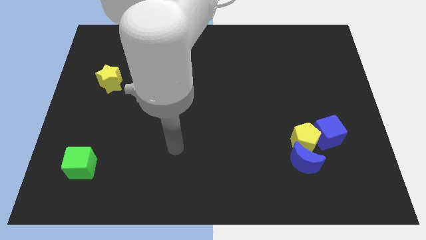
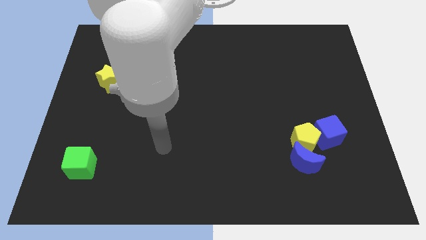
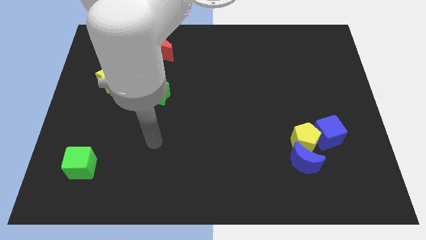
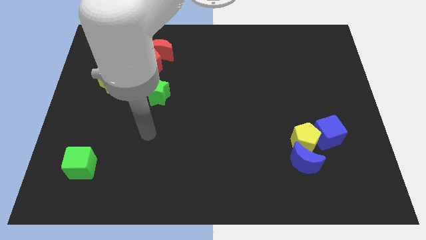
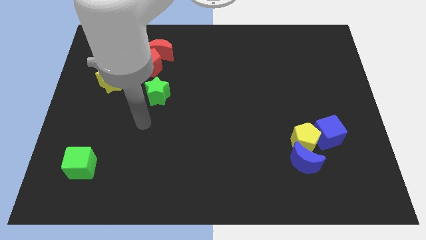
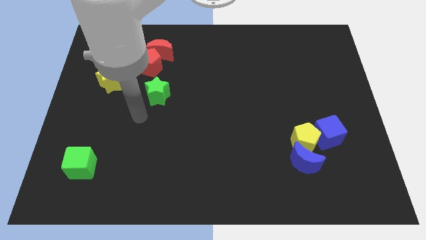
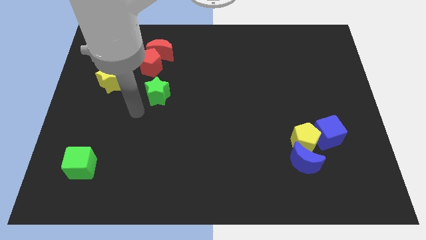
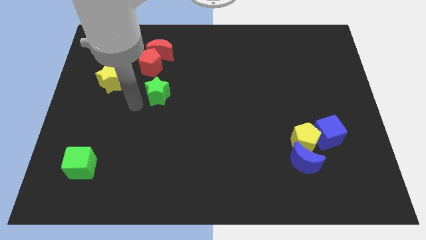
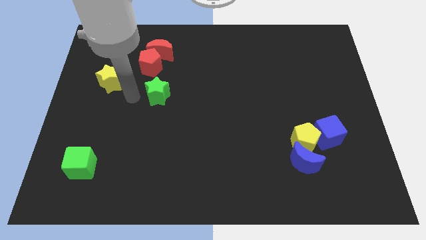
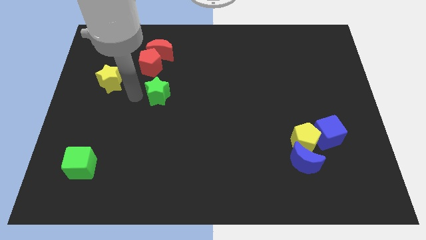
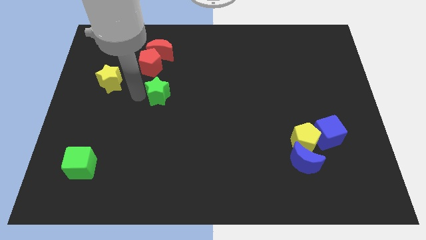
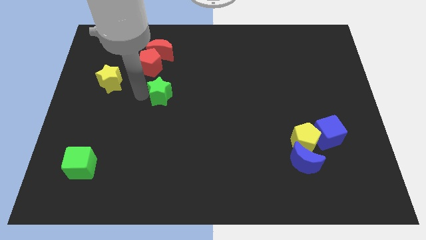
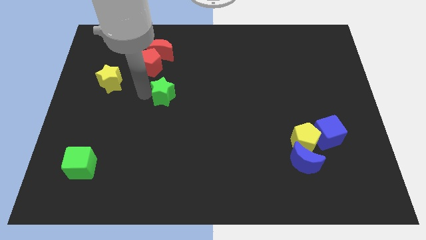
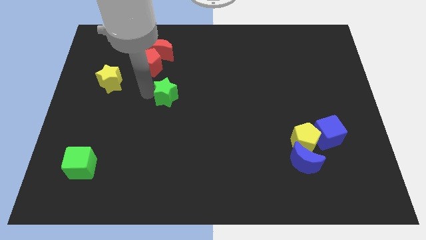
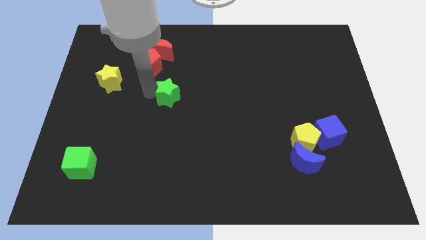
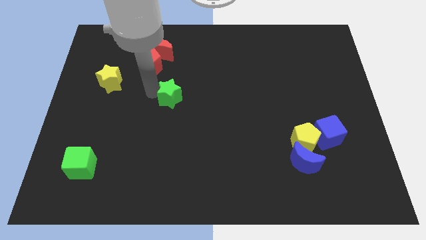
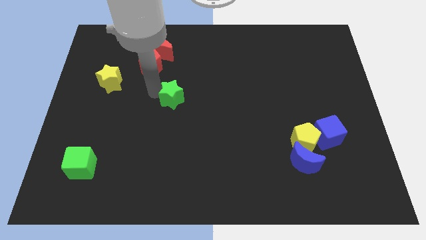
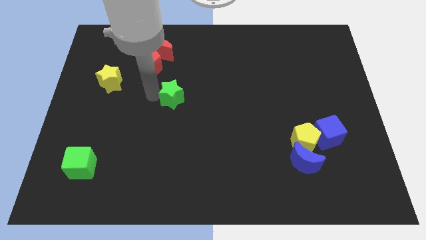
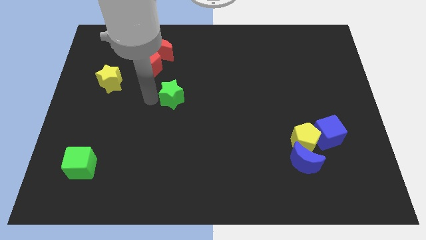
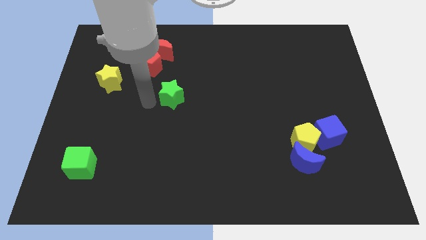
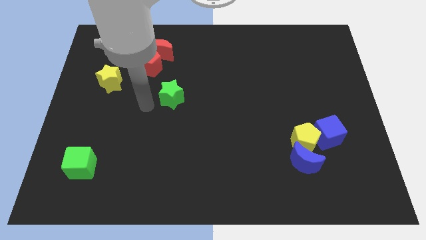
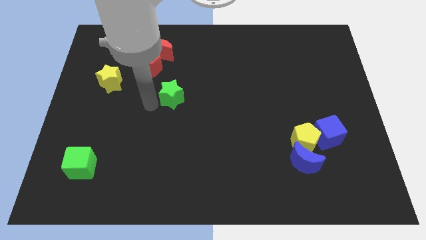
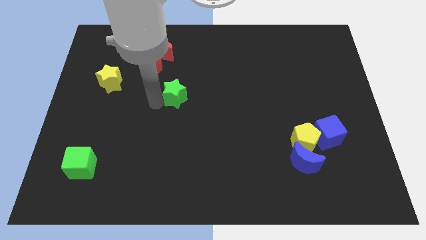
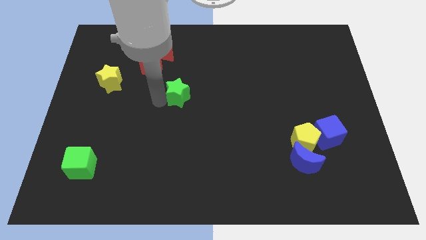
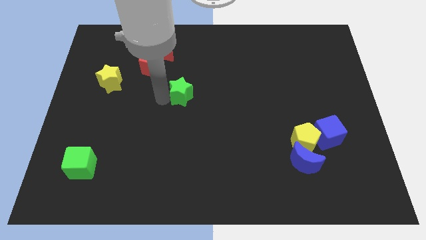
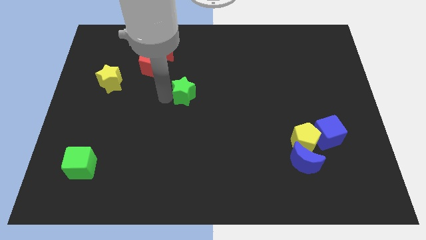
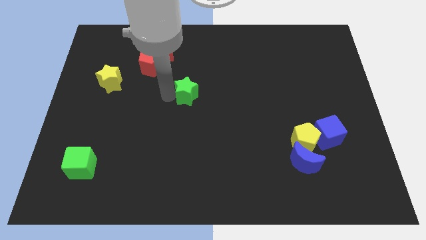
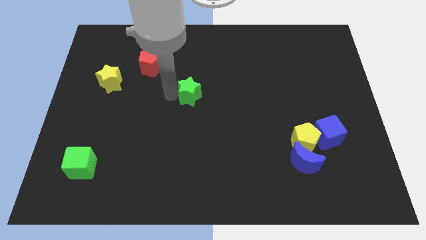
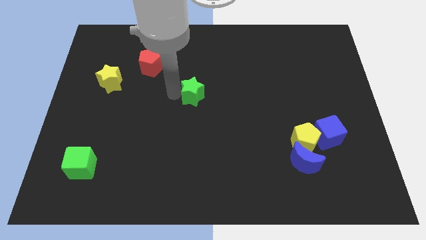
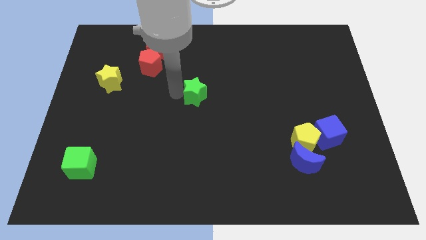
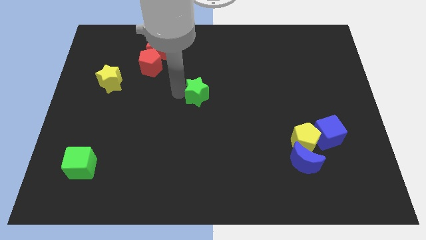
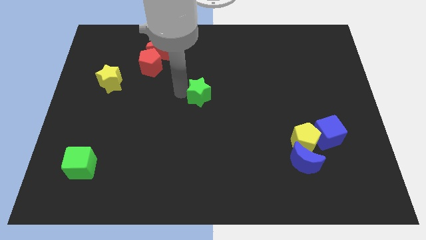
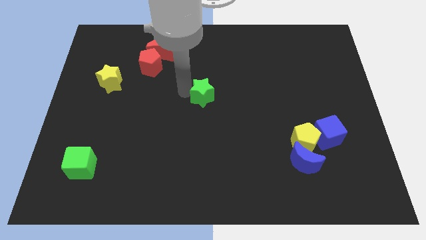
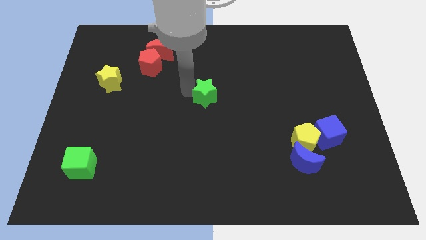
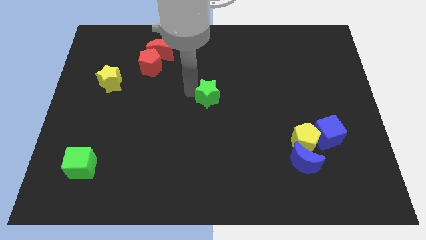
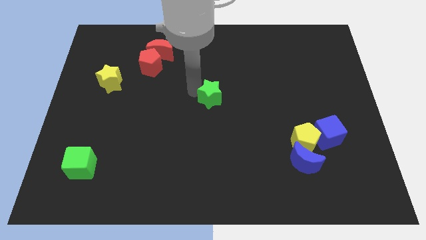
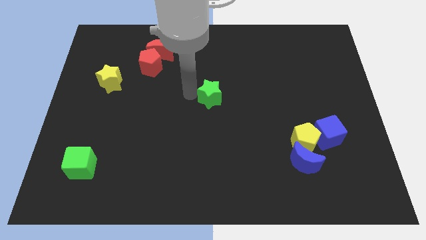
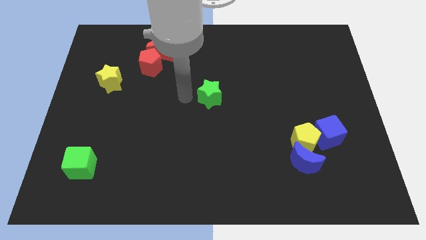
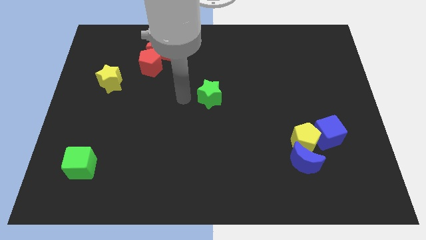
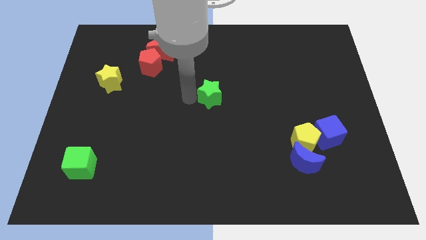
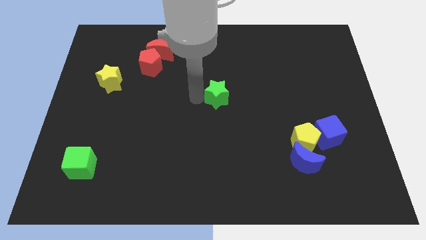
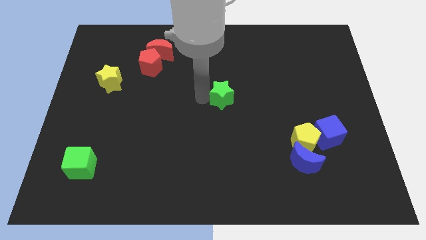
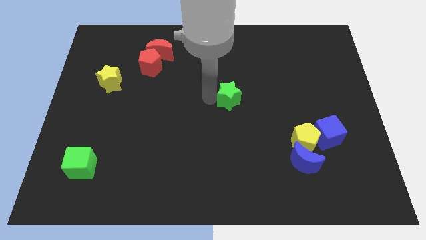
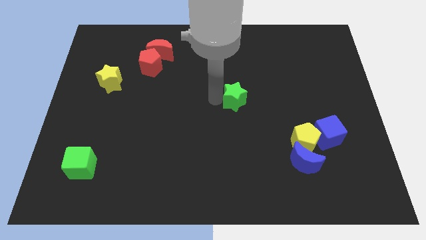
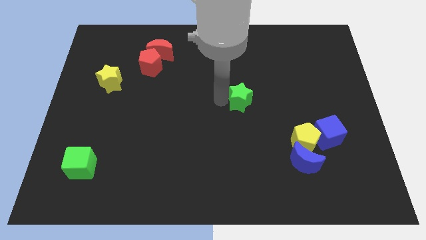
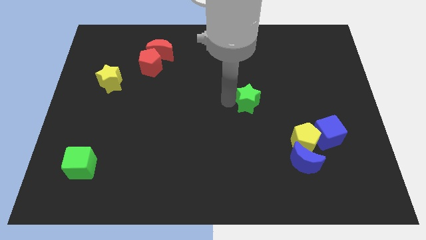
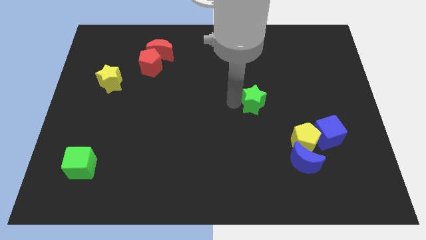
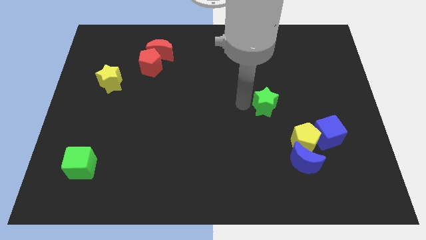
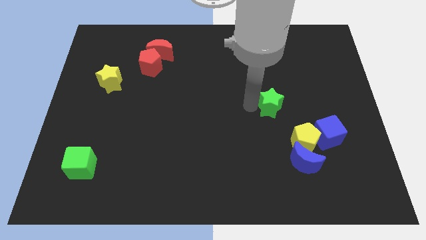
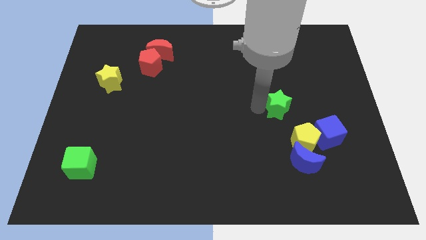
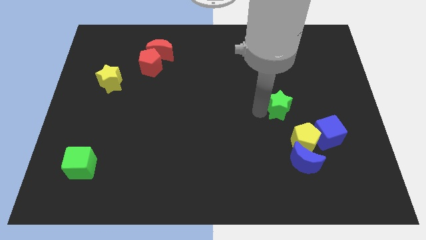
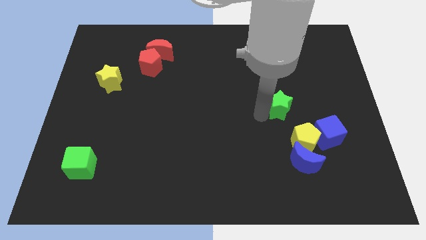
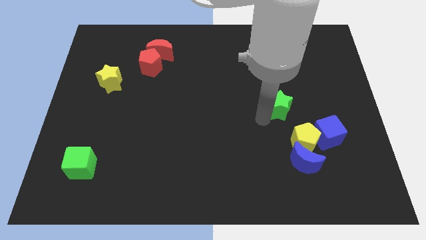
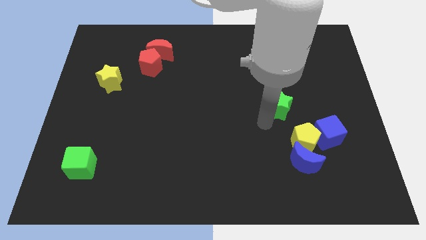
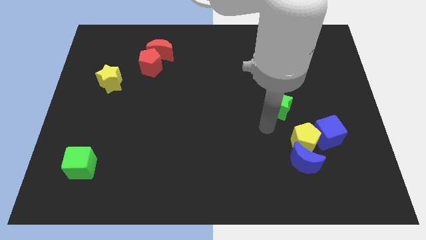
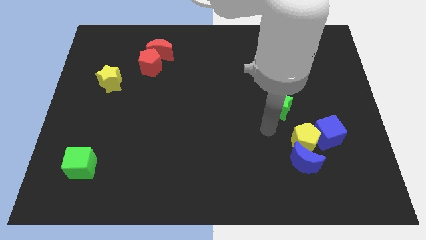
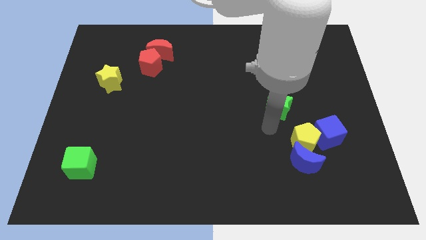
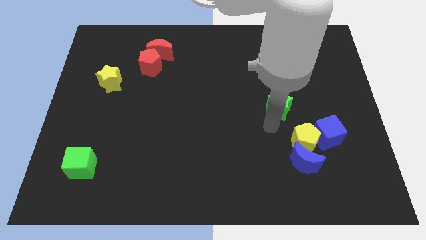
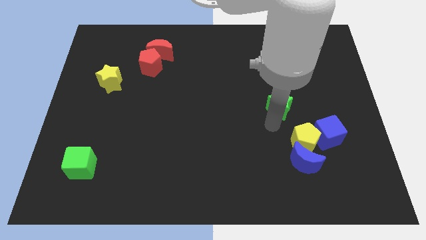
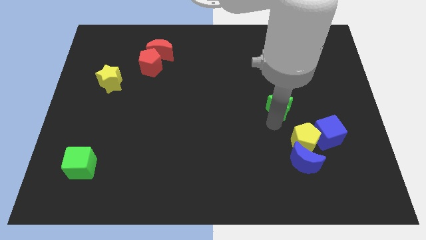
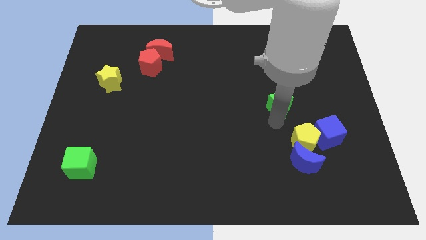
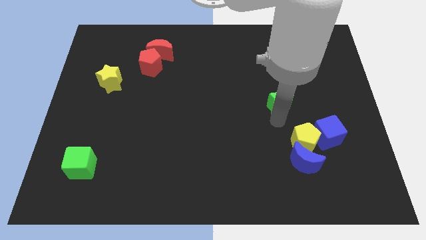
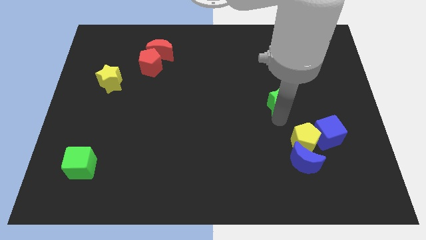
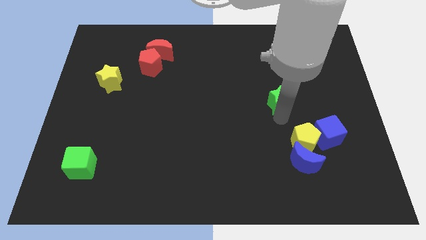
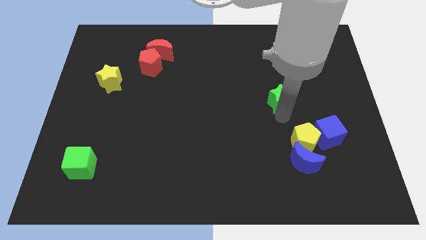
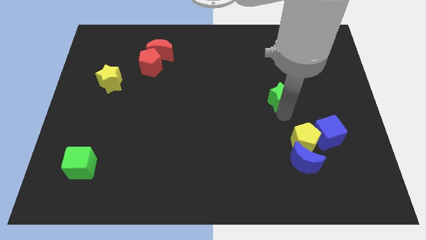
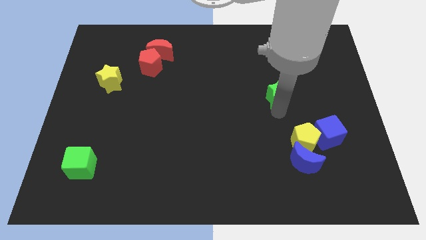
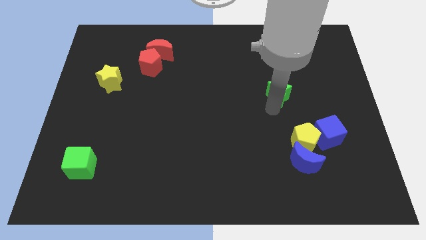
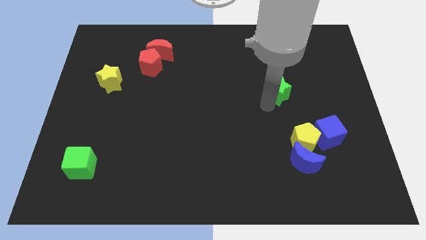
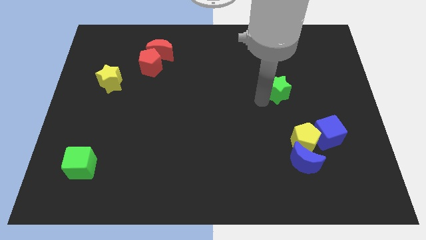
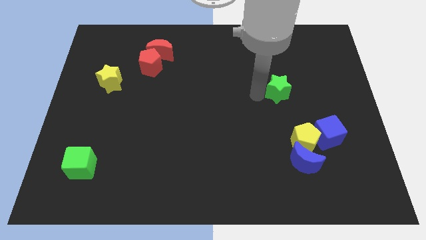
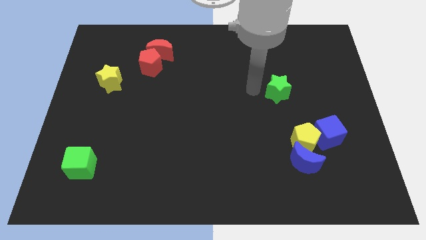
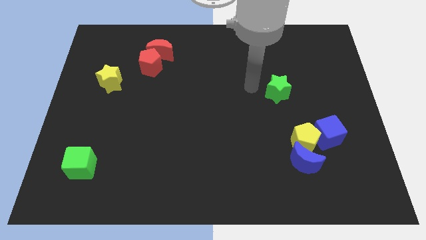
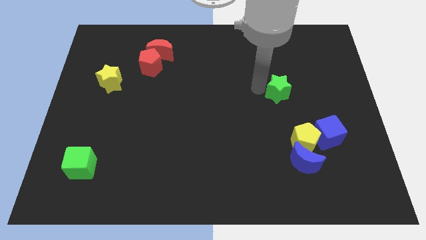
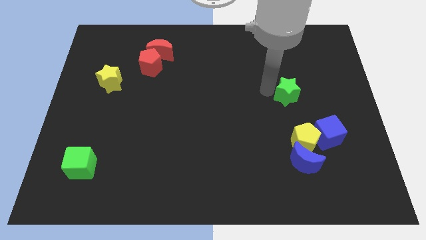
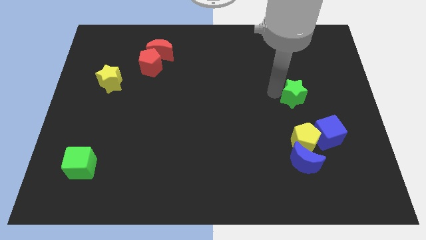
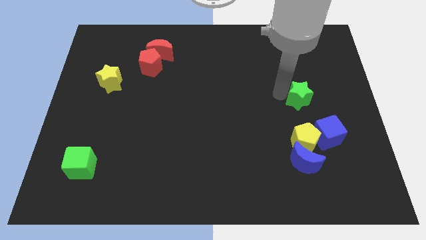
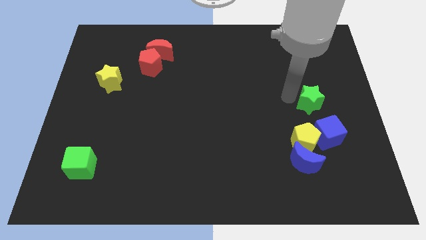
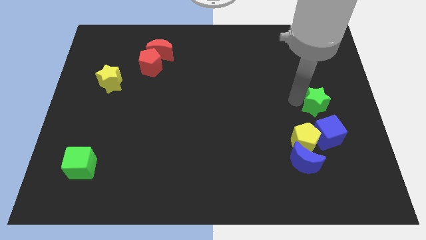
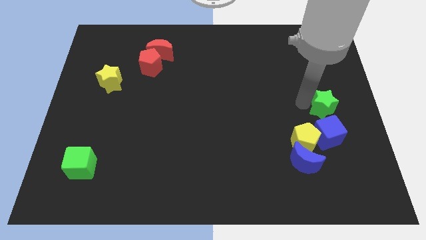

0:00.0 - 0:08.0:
move the green star to the right side
